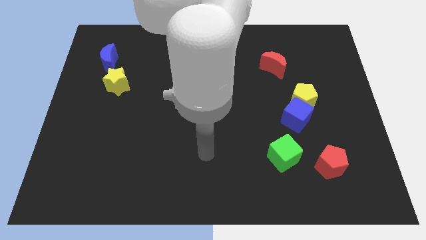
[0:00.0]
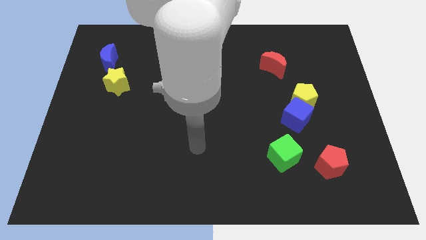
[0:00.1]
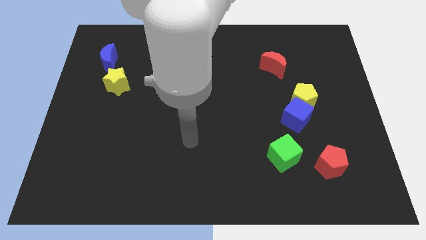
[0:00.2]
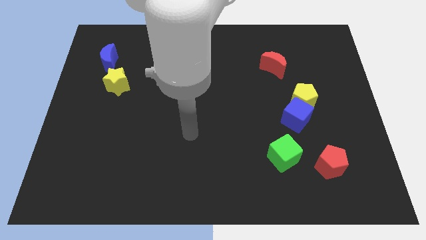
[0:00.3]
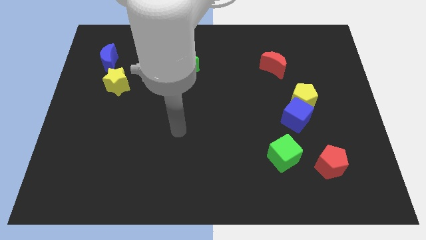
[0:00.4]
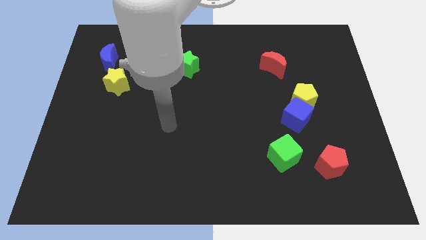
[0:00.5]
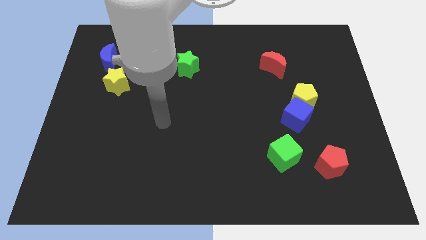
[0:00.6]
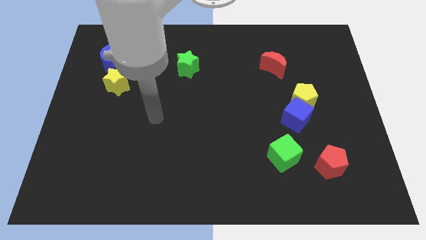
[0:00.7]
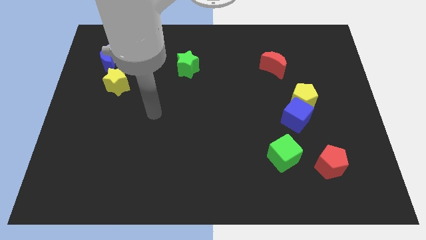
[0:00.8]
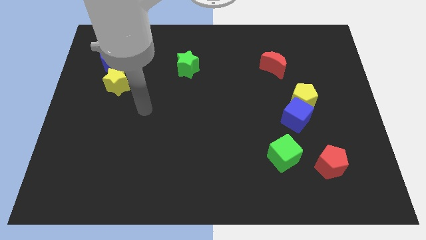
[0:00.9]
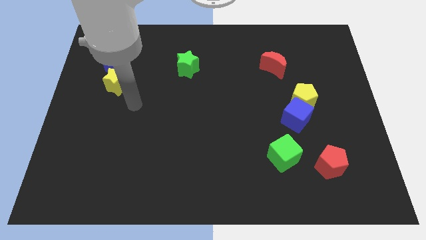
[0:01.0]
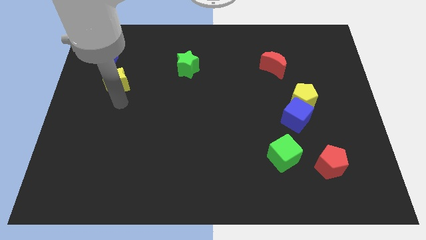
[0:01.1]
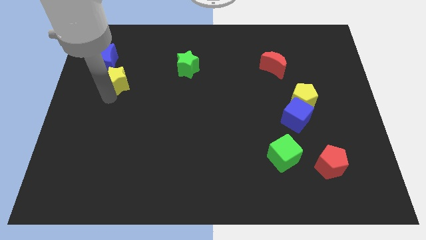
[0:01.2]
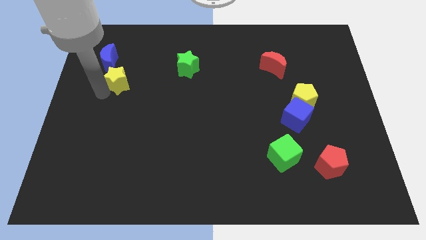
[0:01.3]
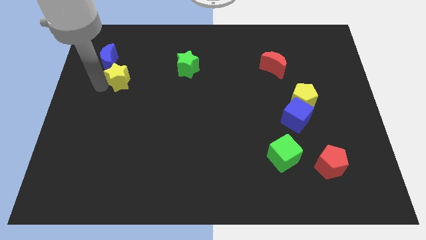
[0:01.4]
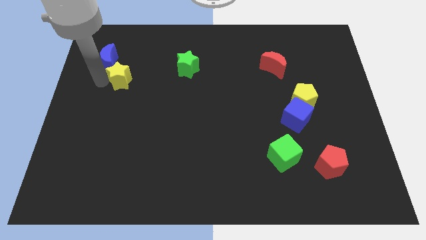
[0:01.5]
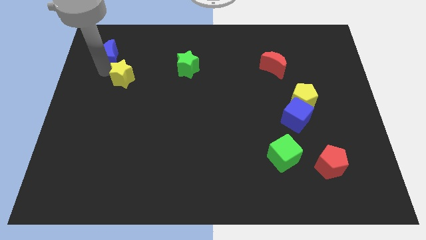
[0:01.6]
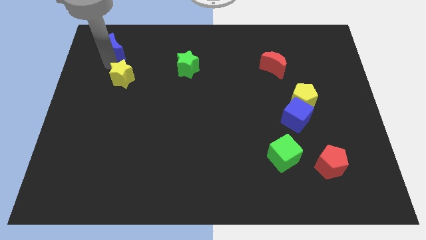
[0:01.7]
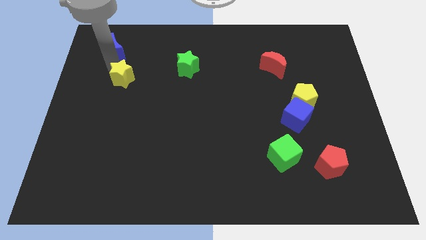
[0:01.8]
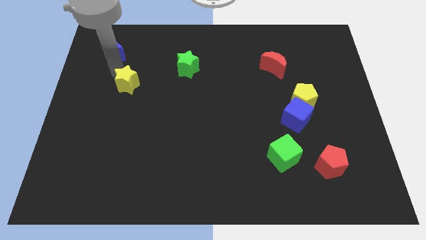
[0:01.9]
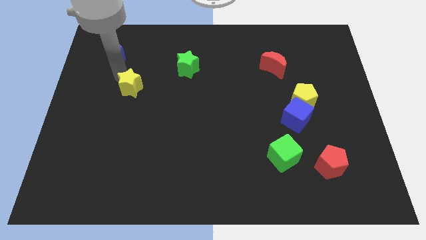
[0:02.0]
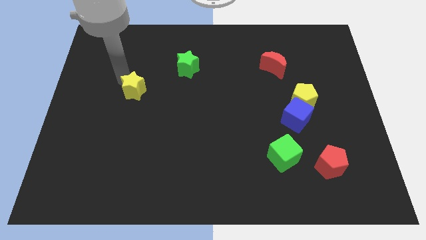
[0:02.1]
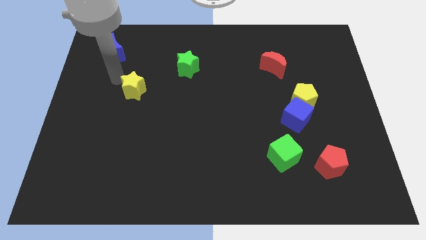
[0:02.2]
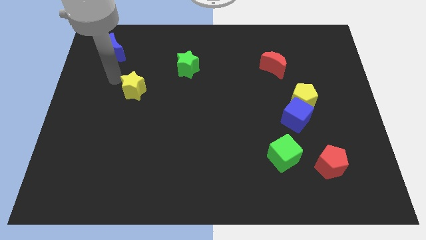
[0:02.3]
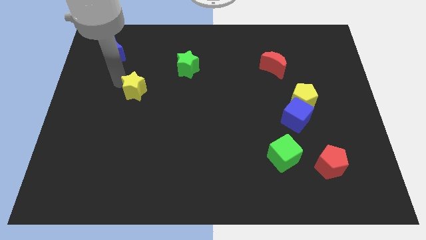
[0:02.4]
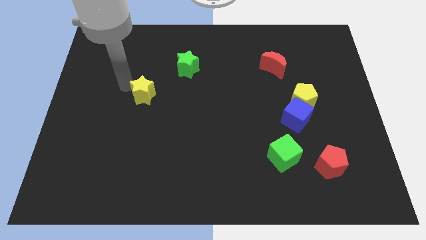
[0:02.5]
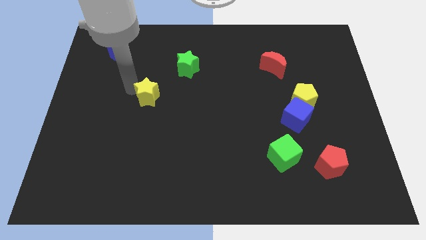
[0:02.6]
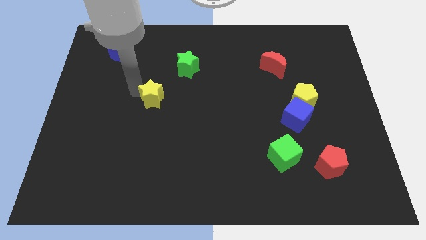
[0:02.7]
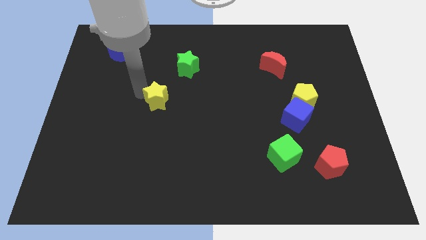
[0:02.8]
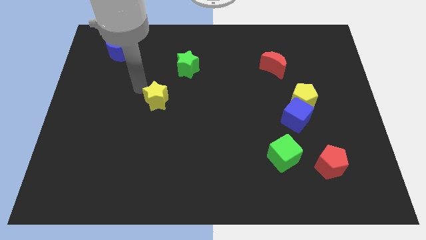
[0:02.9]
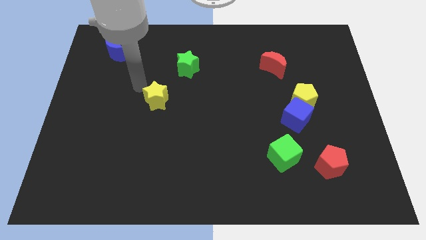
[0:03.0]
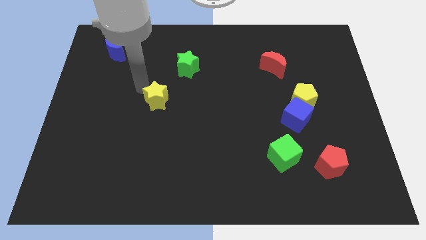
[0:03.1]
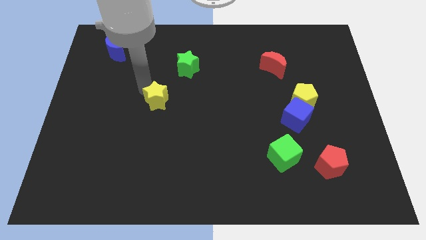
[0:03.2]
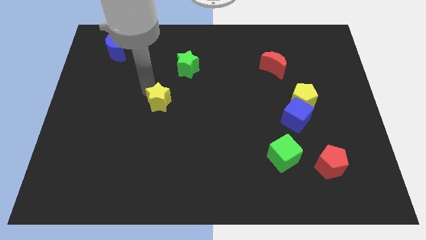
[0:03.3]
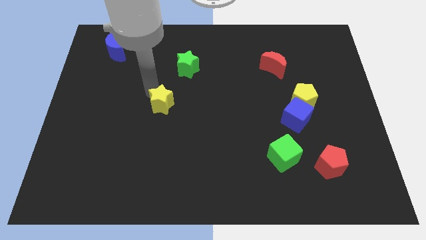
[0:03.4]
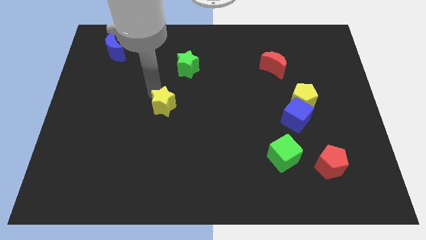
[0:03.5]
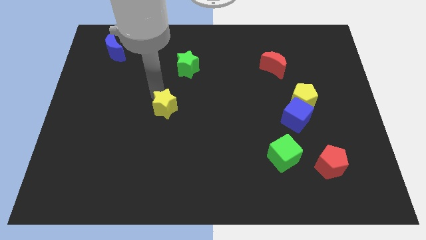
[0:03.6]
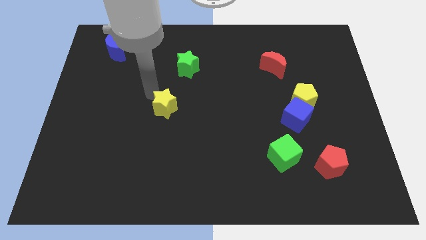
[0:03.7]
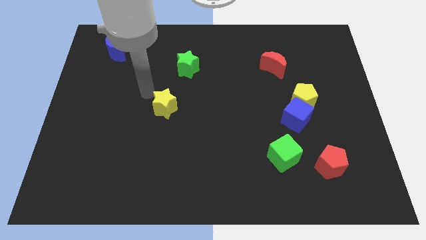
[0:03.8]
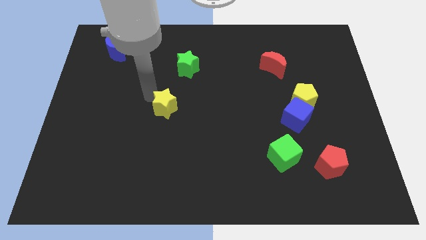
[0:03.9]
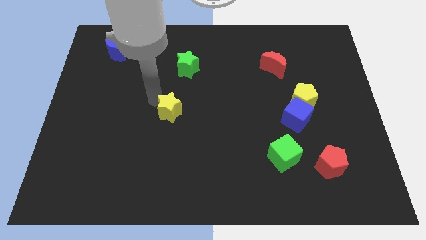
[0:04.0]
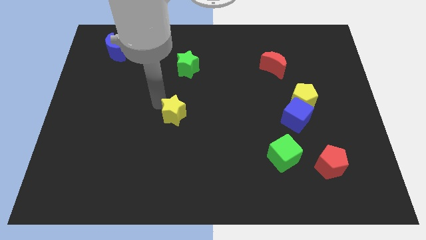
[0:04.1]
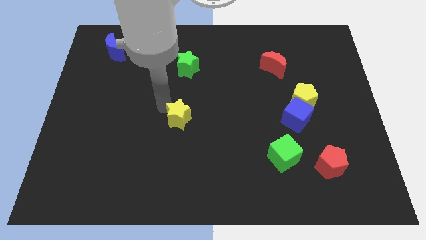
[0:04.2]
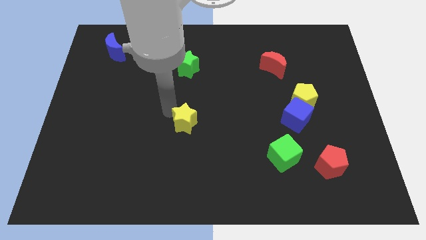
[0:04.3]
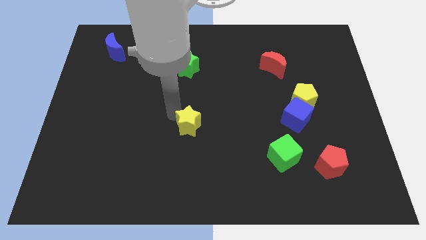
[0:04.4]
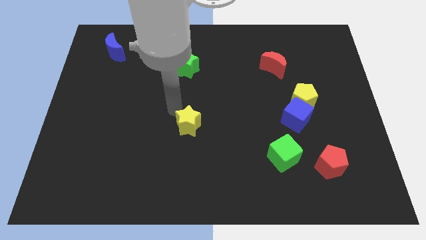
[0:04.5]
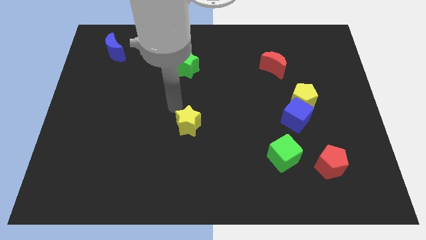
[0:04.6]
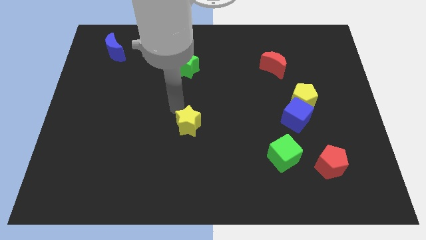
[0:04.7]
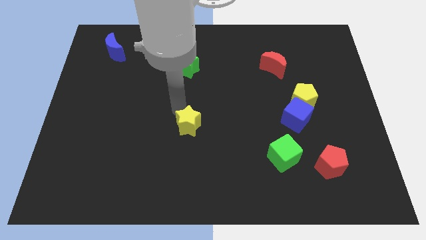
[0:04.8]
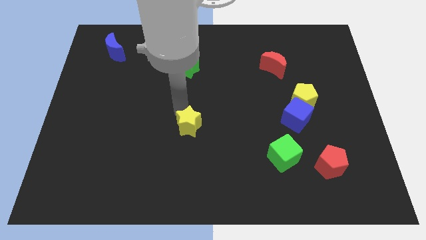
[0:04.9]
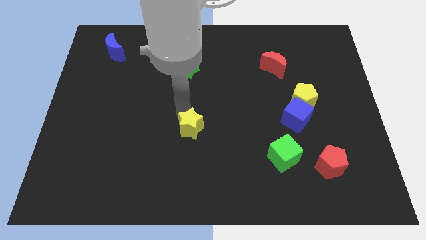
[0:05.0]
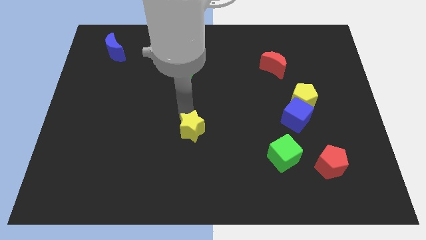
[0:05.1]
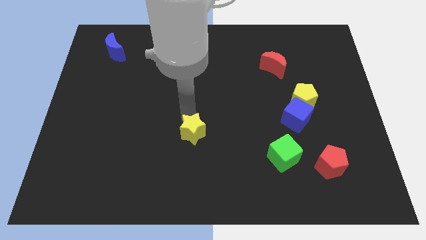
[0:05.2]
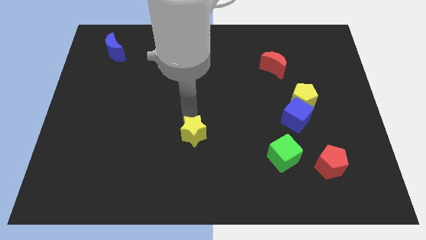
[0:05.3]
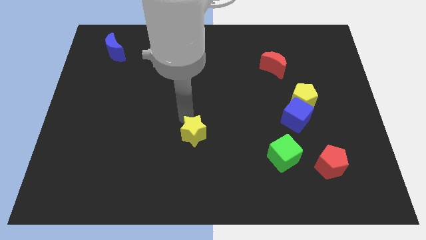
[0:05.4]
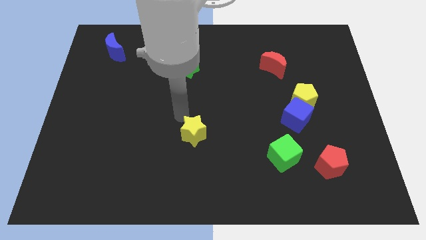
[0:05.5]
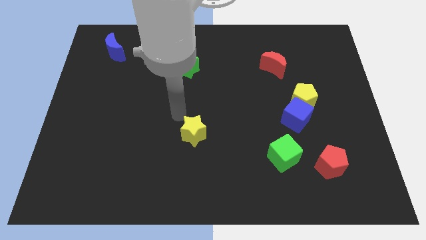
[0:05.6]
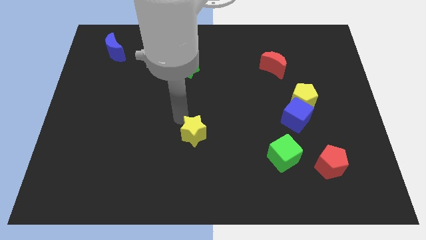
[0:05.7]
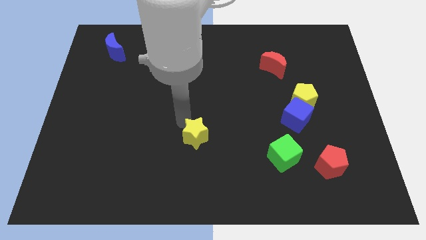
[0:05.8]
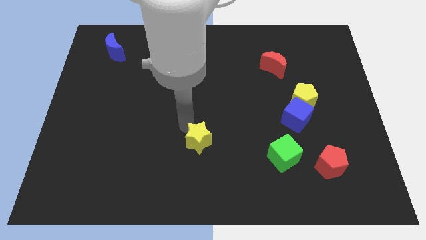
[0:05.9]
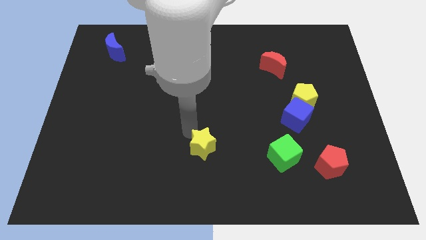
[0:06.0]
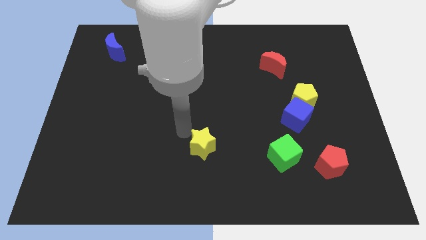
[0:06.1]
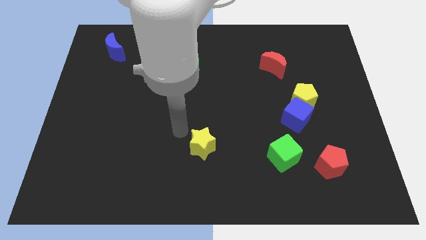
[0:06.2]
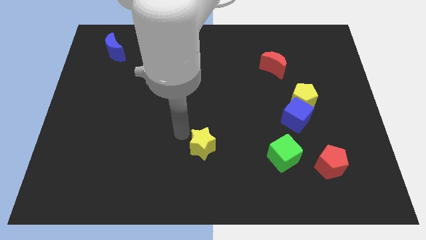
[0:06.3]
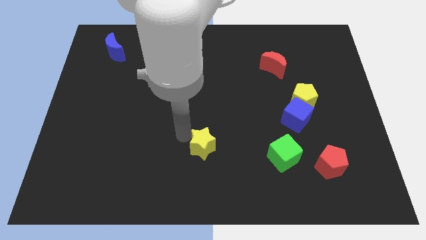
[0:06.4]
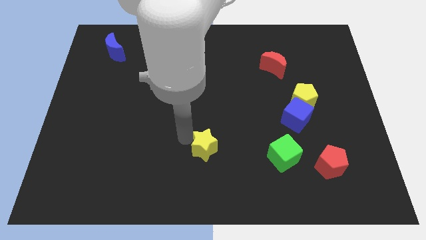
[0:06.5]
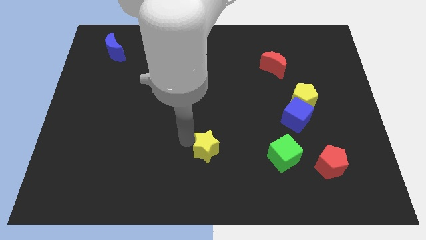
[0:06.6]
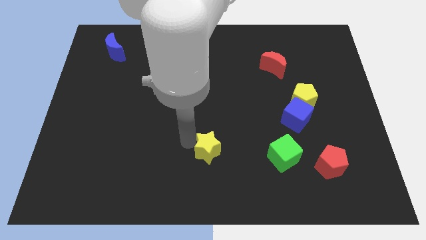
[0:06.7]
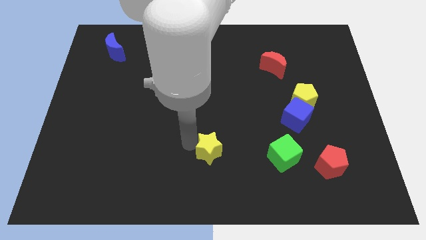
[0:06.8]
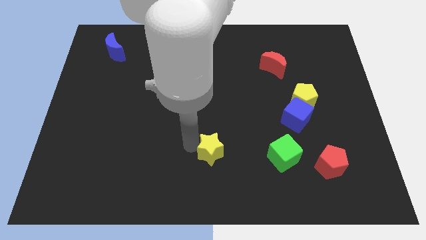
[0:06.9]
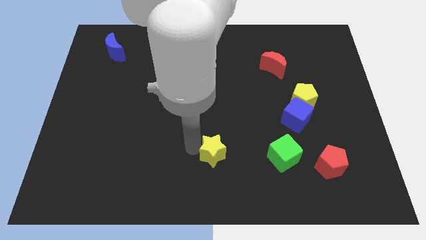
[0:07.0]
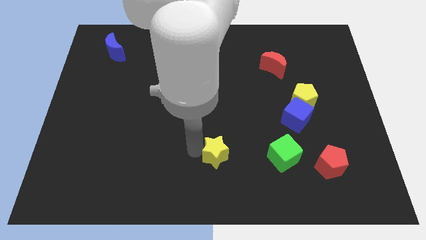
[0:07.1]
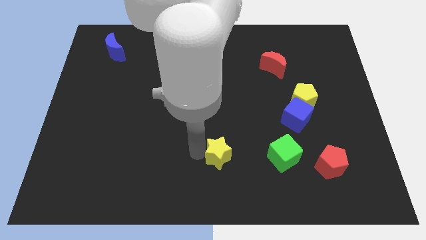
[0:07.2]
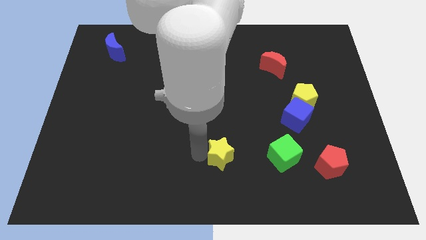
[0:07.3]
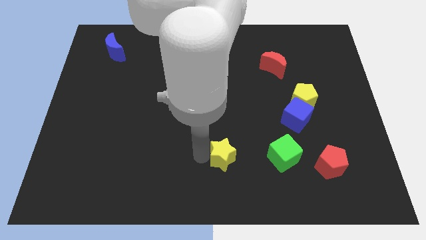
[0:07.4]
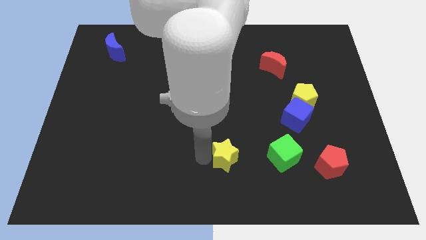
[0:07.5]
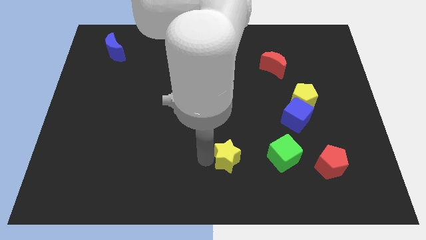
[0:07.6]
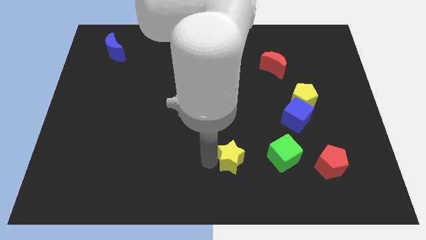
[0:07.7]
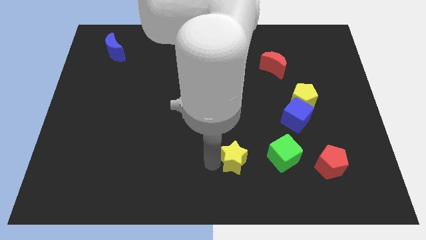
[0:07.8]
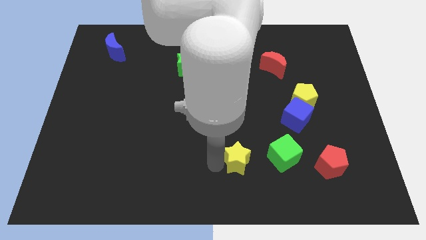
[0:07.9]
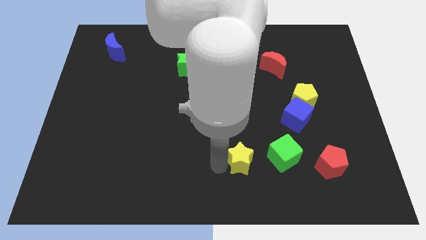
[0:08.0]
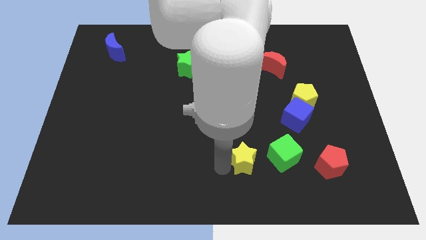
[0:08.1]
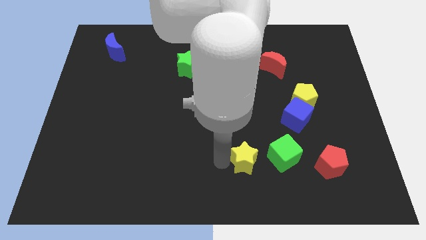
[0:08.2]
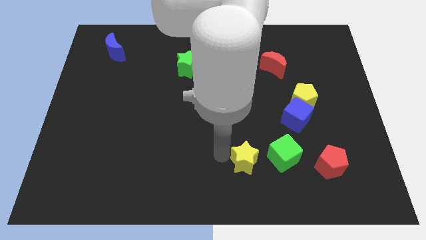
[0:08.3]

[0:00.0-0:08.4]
push the yellow star to the bottom left of the green cube
